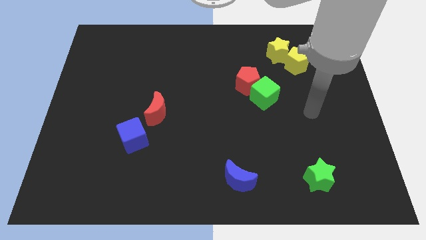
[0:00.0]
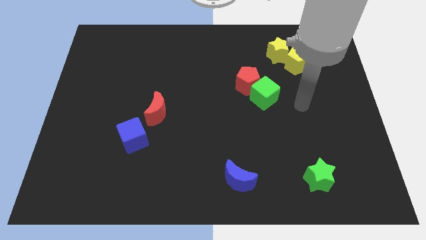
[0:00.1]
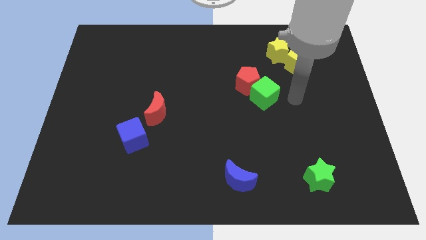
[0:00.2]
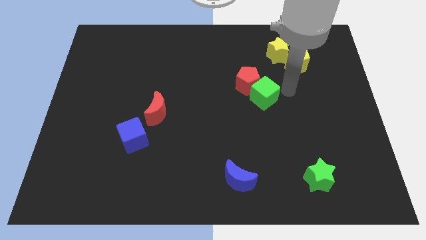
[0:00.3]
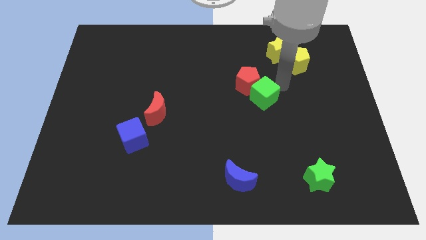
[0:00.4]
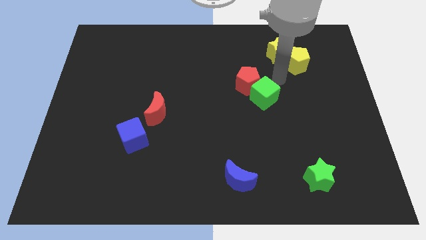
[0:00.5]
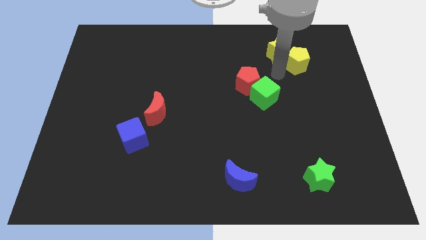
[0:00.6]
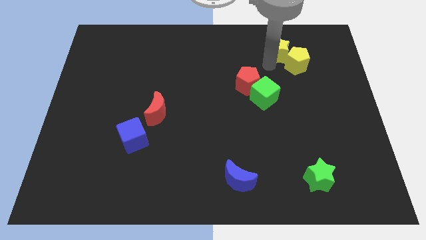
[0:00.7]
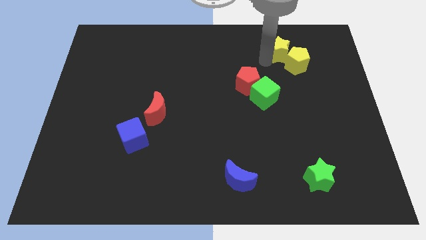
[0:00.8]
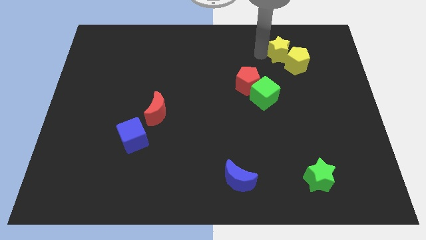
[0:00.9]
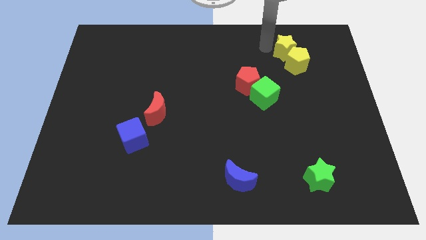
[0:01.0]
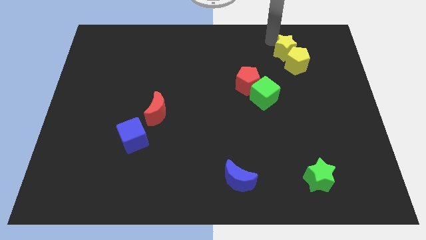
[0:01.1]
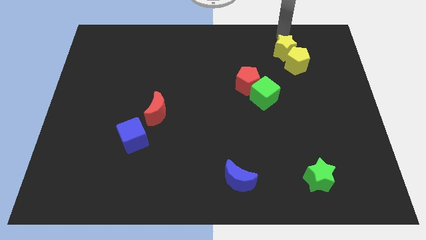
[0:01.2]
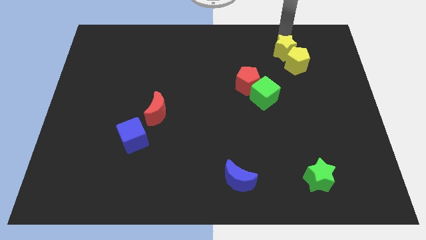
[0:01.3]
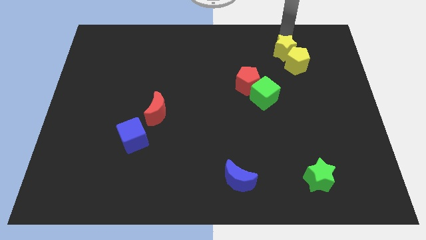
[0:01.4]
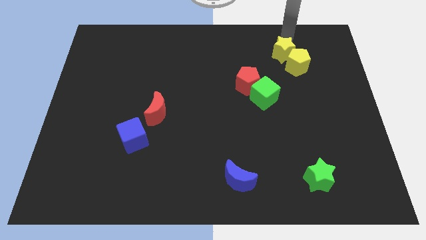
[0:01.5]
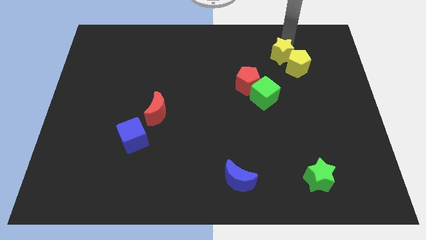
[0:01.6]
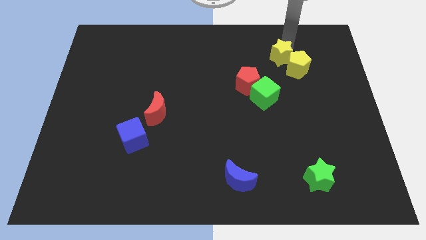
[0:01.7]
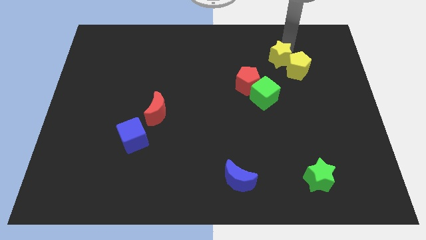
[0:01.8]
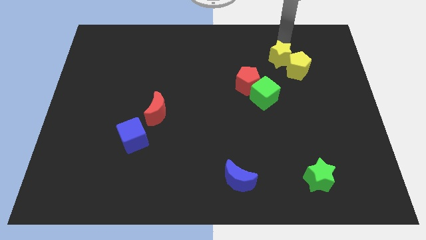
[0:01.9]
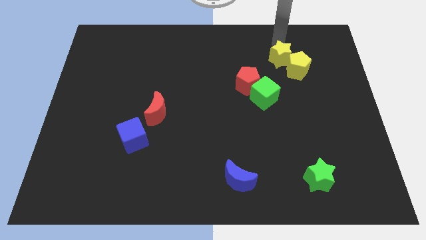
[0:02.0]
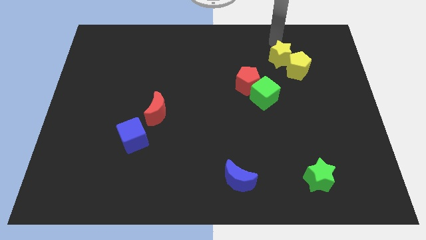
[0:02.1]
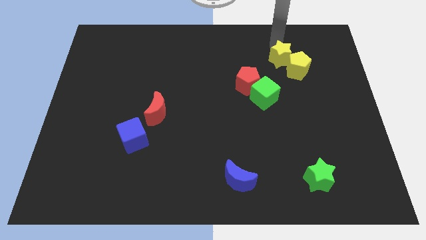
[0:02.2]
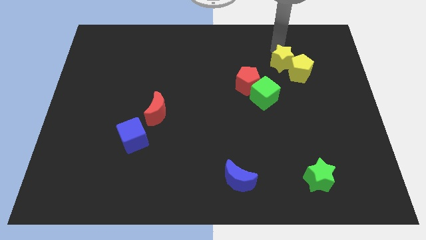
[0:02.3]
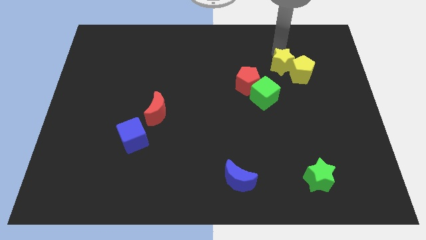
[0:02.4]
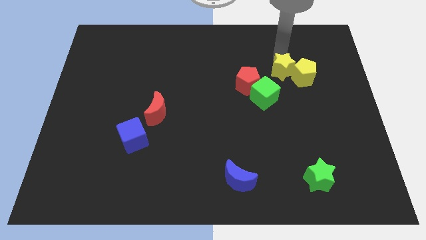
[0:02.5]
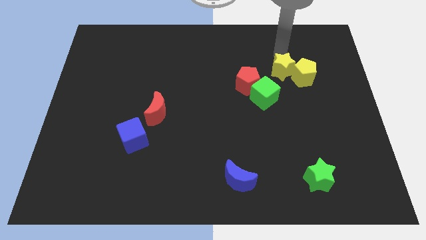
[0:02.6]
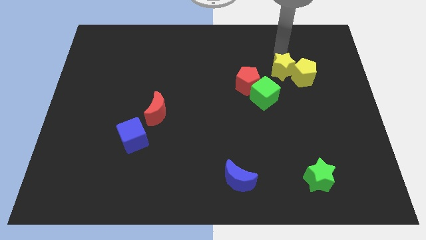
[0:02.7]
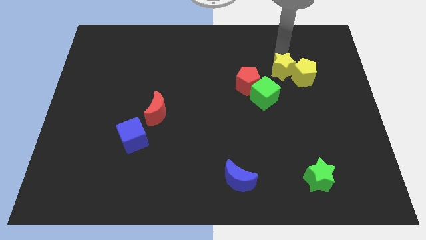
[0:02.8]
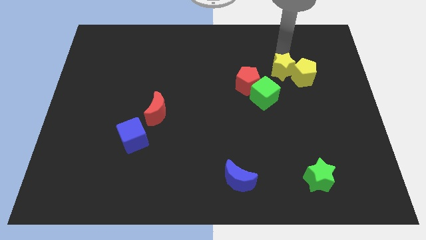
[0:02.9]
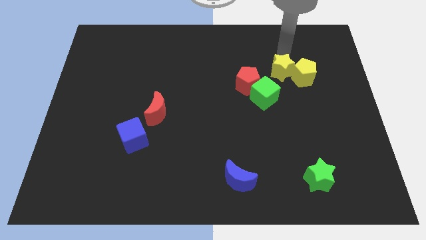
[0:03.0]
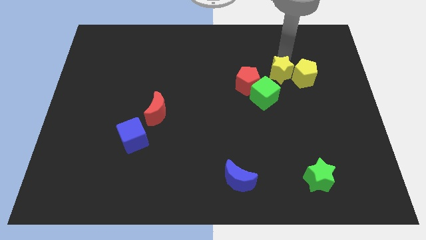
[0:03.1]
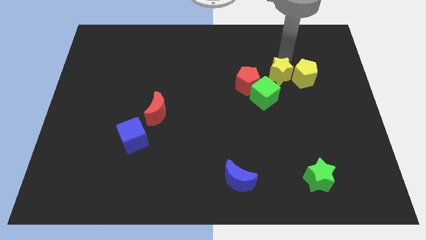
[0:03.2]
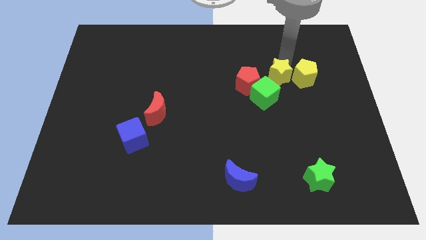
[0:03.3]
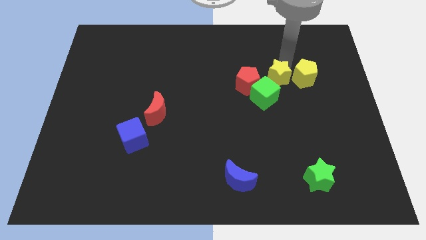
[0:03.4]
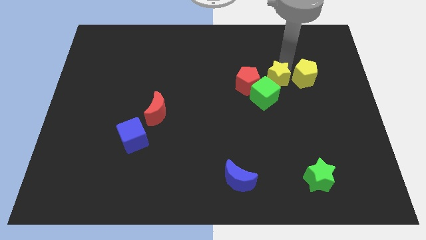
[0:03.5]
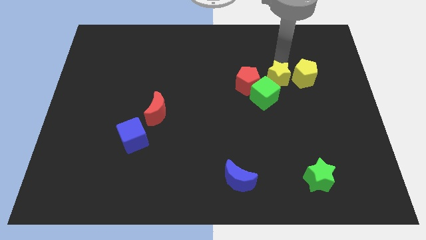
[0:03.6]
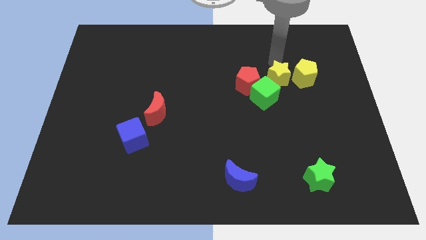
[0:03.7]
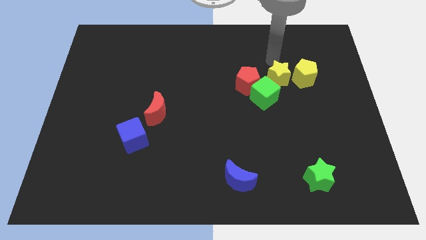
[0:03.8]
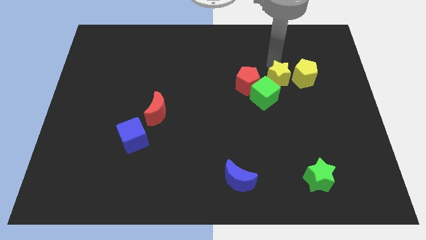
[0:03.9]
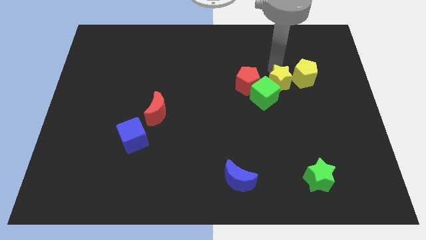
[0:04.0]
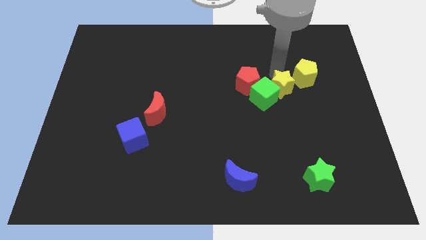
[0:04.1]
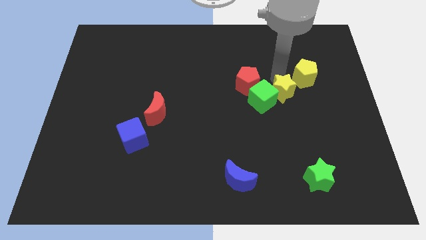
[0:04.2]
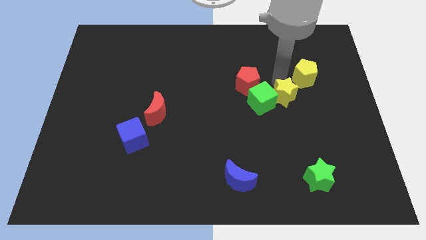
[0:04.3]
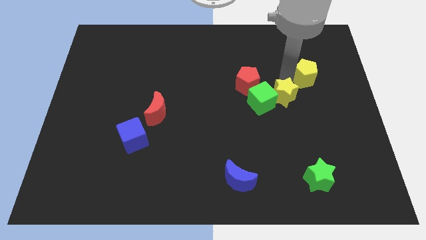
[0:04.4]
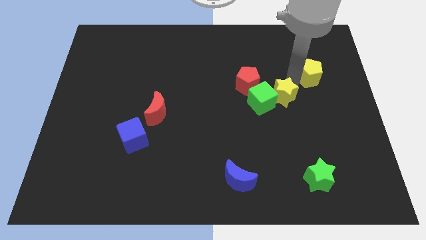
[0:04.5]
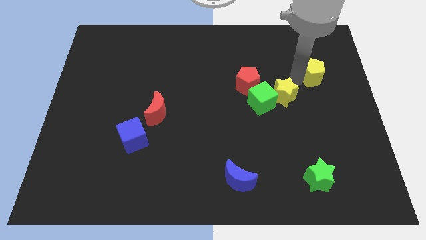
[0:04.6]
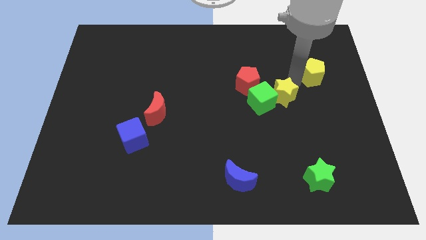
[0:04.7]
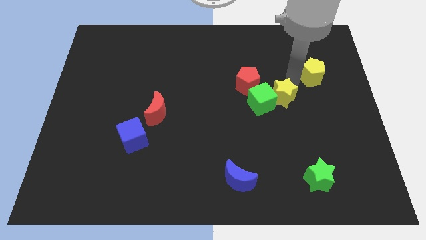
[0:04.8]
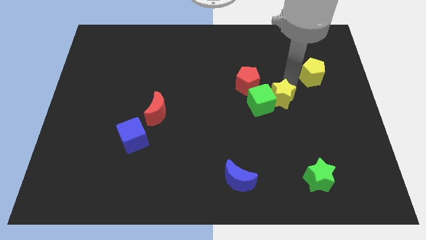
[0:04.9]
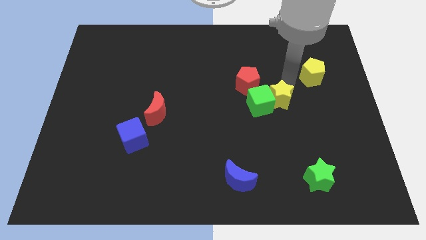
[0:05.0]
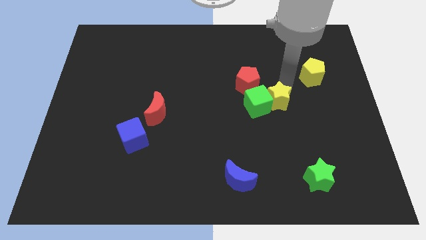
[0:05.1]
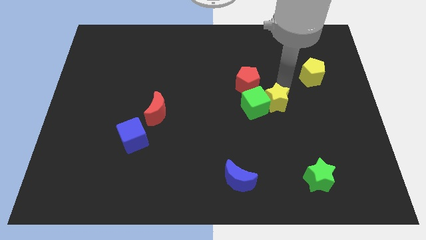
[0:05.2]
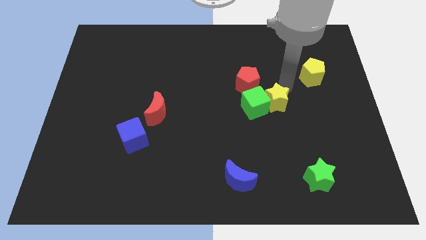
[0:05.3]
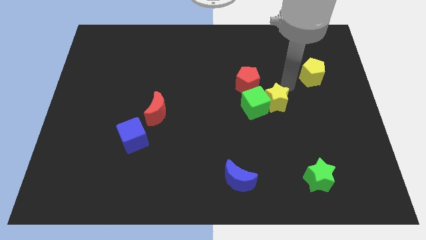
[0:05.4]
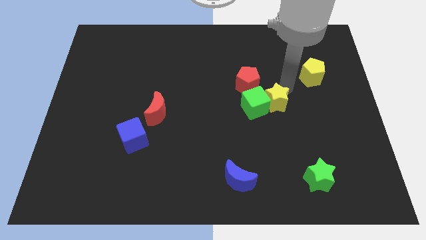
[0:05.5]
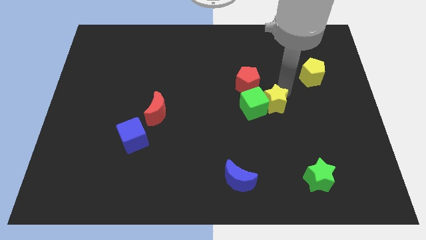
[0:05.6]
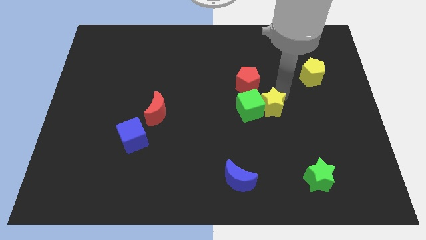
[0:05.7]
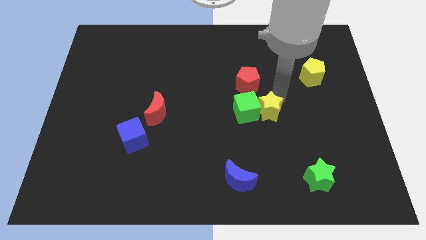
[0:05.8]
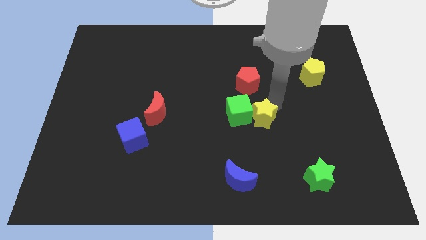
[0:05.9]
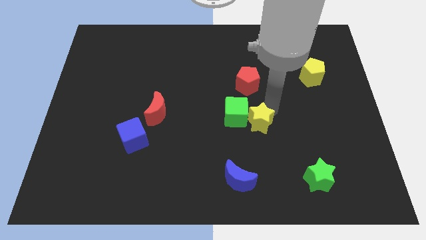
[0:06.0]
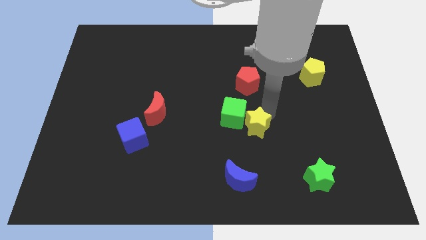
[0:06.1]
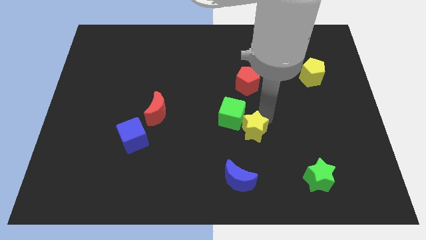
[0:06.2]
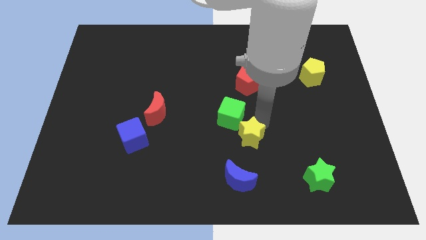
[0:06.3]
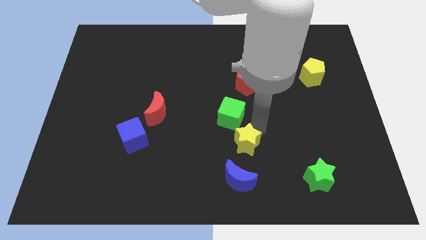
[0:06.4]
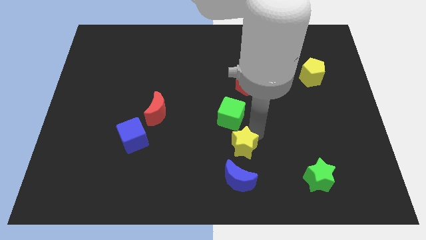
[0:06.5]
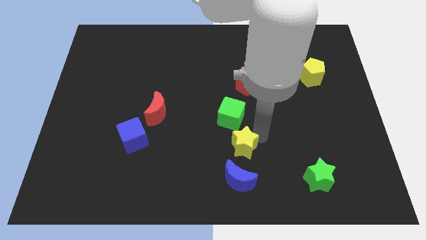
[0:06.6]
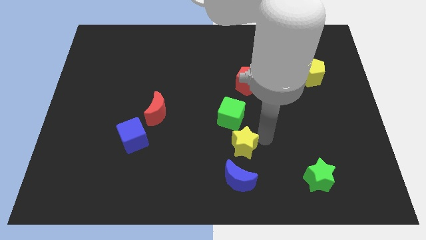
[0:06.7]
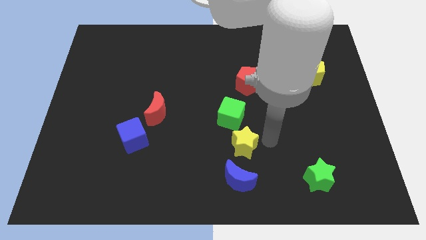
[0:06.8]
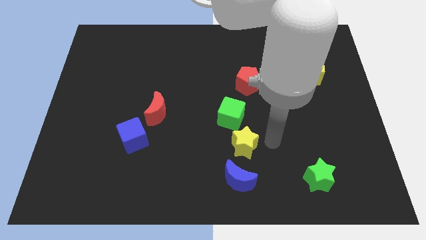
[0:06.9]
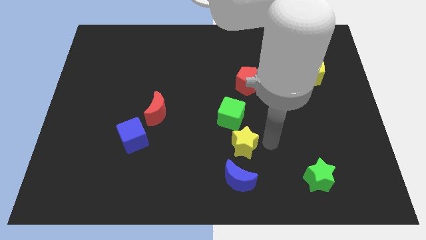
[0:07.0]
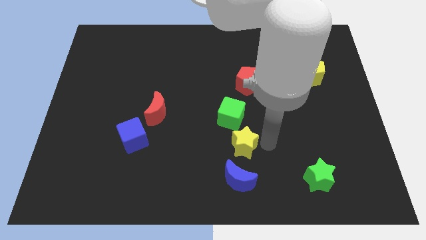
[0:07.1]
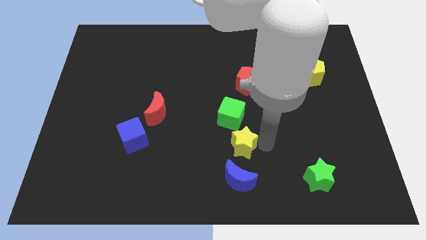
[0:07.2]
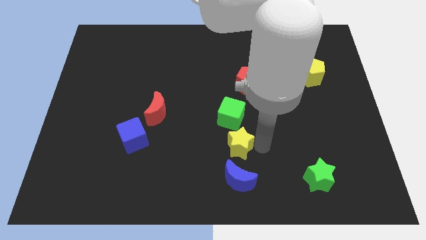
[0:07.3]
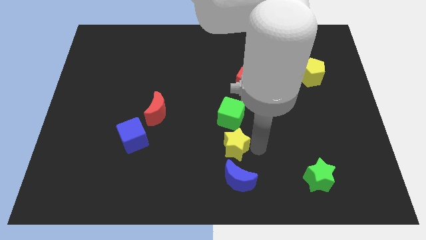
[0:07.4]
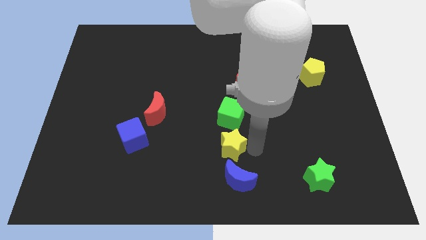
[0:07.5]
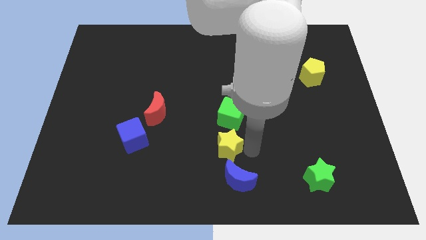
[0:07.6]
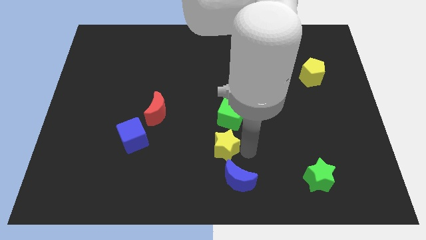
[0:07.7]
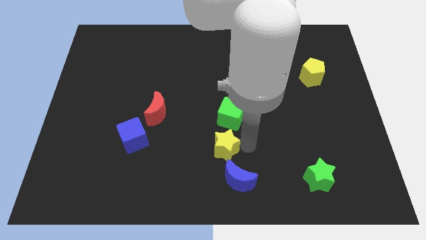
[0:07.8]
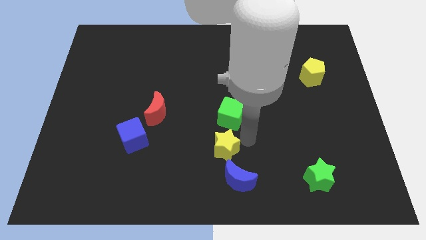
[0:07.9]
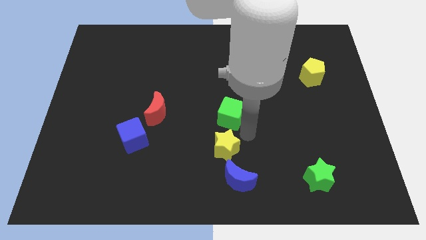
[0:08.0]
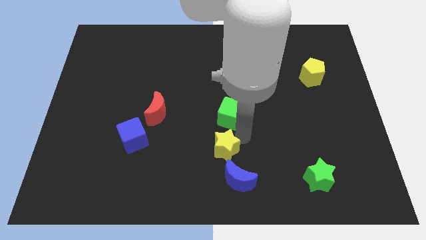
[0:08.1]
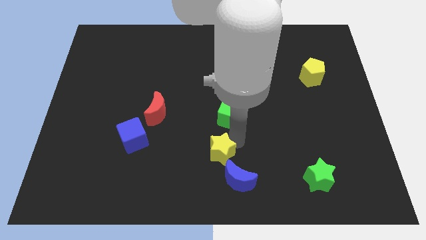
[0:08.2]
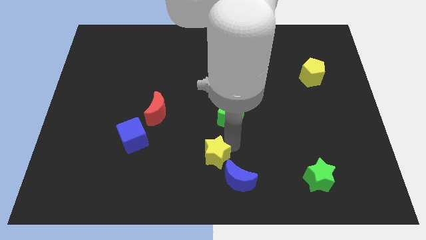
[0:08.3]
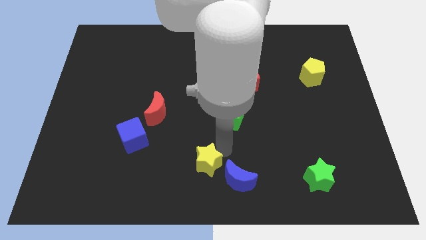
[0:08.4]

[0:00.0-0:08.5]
put the yellow star to the left of the blue moon
